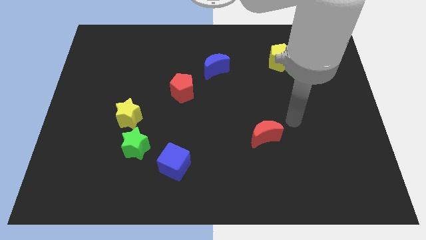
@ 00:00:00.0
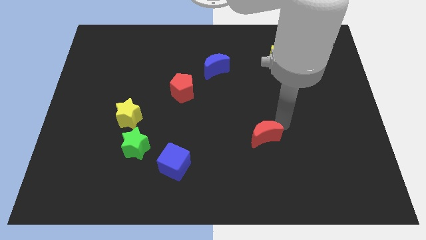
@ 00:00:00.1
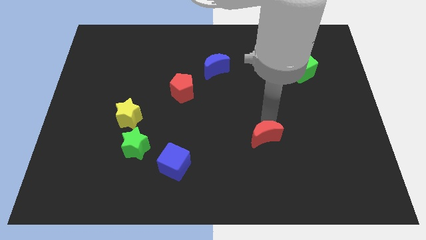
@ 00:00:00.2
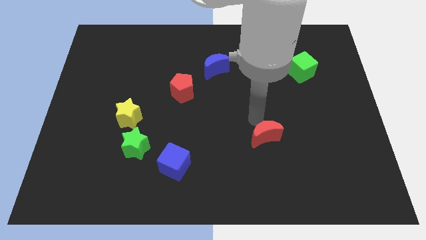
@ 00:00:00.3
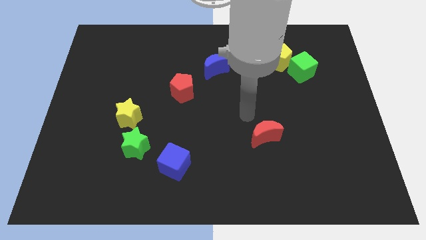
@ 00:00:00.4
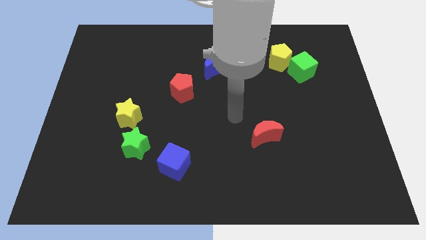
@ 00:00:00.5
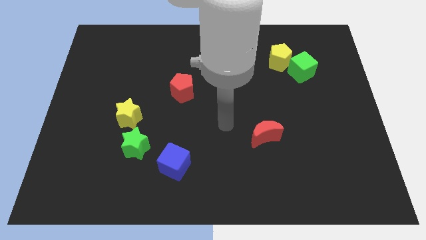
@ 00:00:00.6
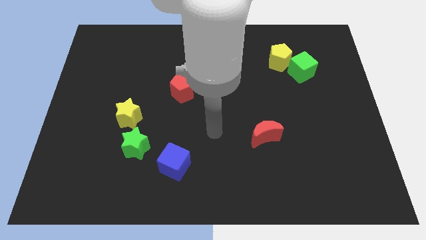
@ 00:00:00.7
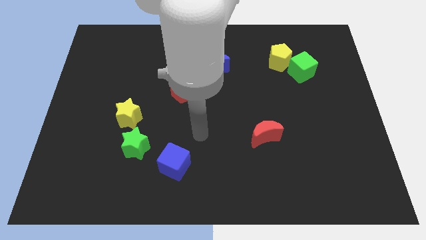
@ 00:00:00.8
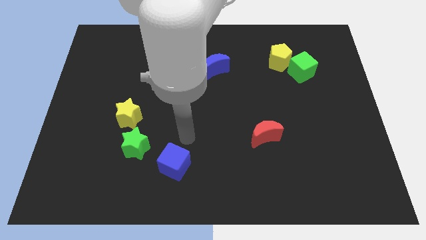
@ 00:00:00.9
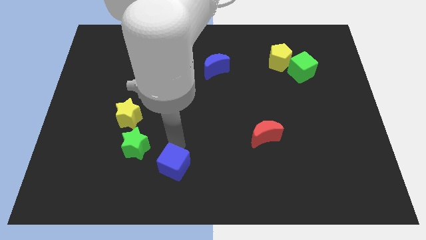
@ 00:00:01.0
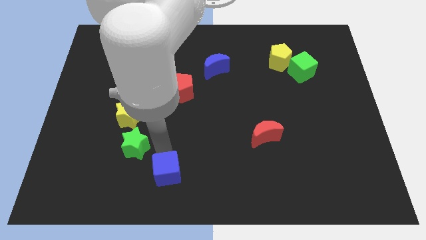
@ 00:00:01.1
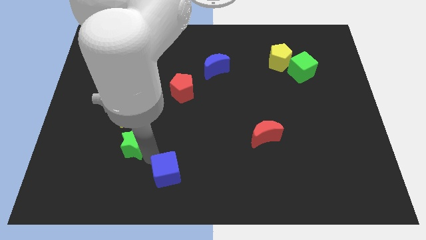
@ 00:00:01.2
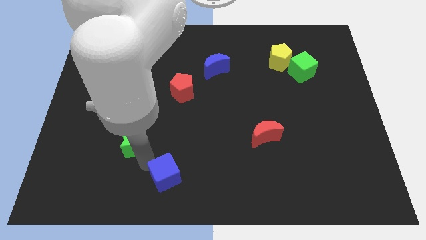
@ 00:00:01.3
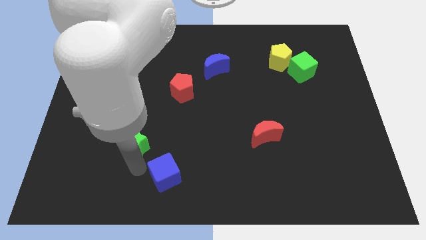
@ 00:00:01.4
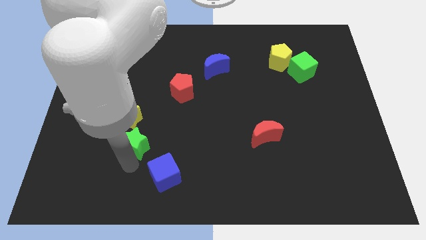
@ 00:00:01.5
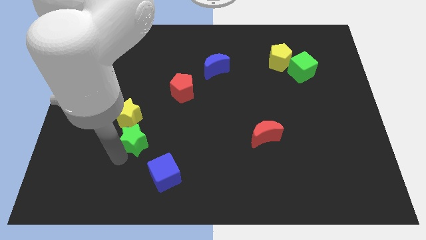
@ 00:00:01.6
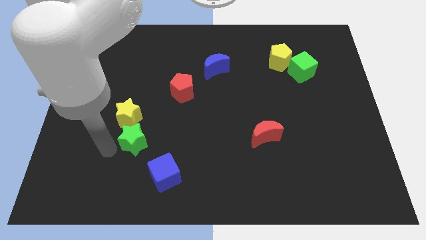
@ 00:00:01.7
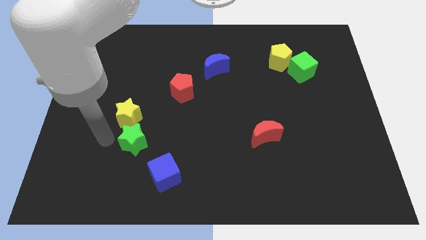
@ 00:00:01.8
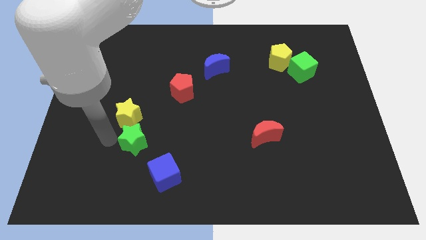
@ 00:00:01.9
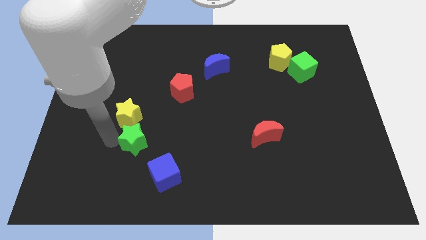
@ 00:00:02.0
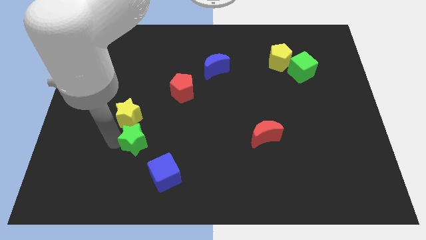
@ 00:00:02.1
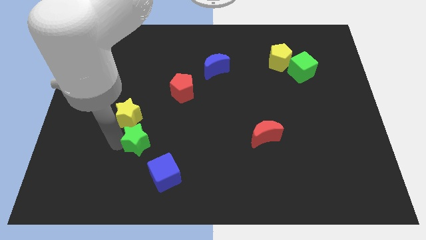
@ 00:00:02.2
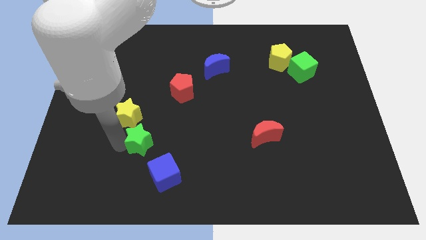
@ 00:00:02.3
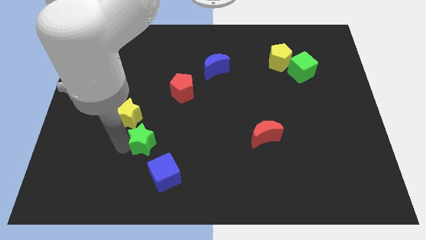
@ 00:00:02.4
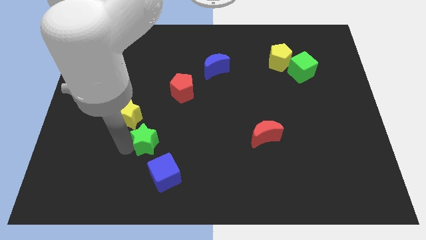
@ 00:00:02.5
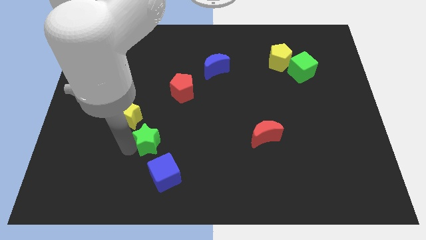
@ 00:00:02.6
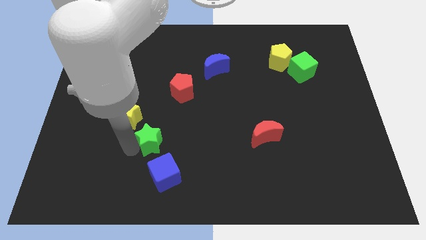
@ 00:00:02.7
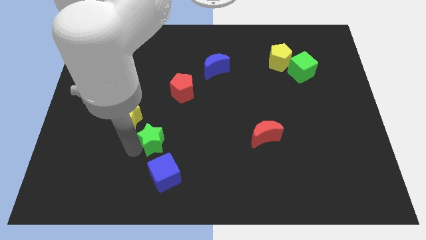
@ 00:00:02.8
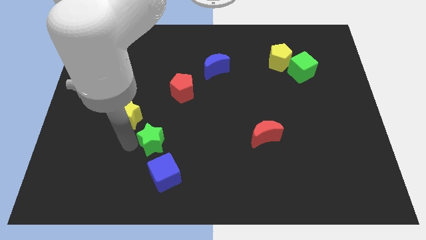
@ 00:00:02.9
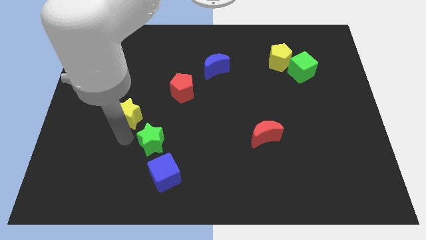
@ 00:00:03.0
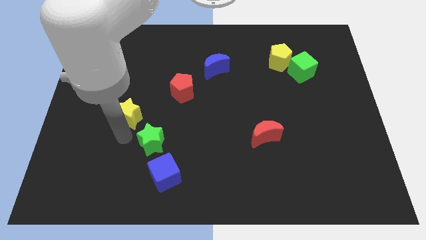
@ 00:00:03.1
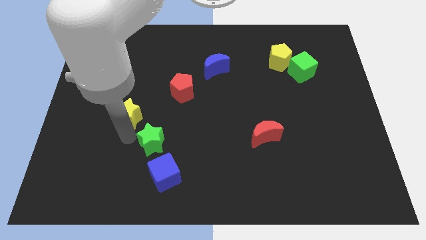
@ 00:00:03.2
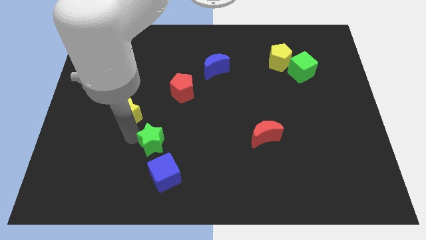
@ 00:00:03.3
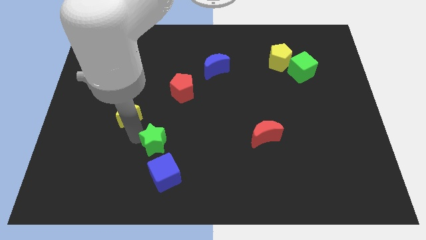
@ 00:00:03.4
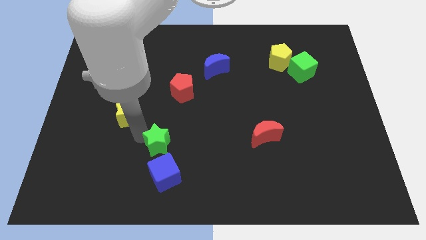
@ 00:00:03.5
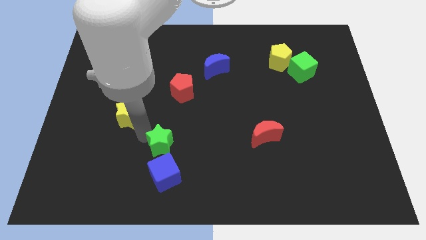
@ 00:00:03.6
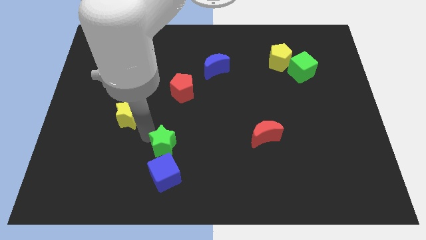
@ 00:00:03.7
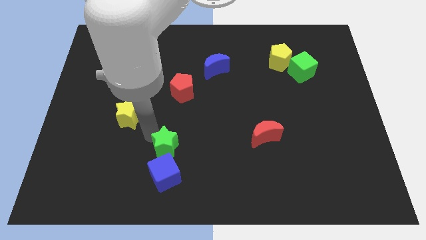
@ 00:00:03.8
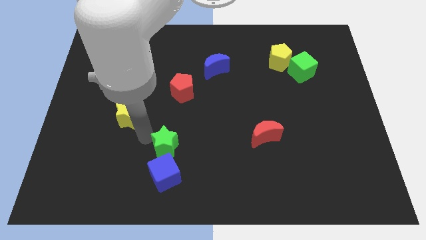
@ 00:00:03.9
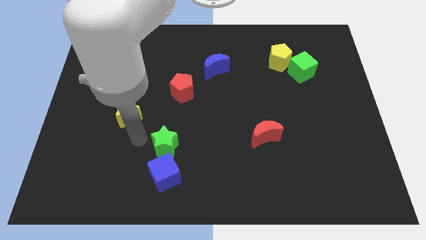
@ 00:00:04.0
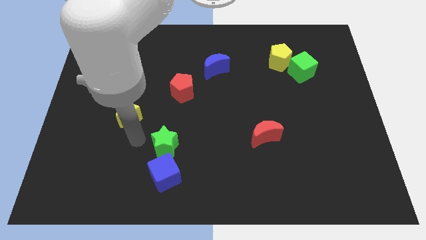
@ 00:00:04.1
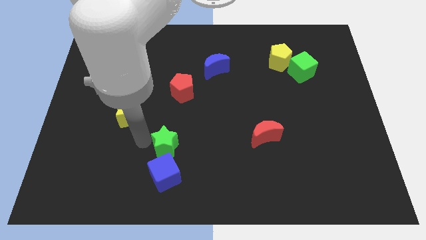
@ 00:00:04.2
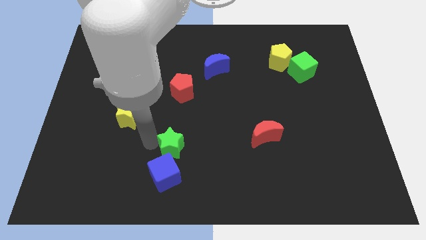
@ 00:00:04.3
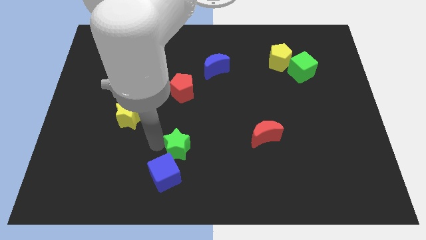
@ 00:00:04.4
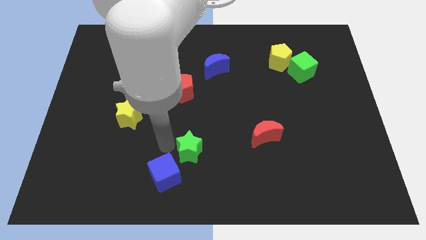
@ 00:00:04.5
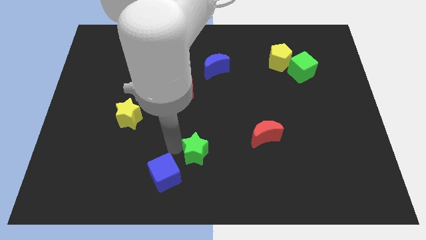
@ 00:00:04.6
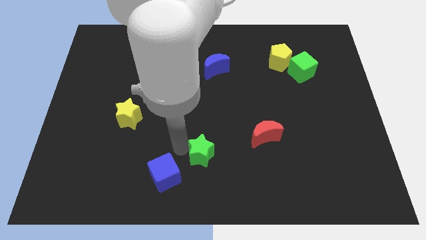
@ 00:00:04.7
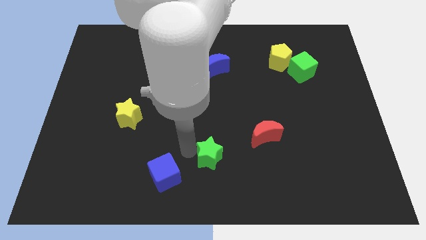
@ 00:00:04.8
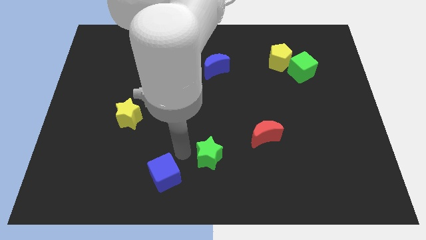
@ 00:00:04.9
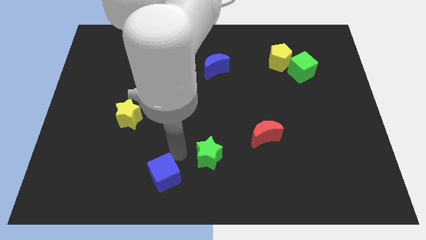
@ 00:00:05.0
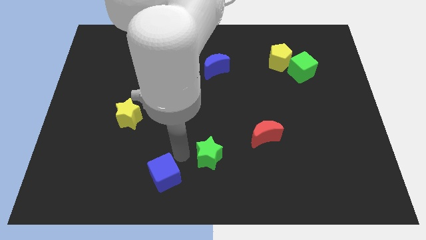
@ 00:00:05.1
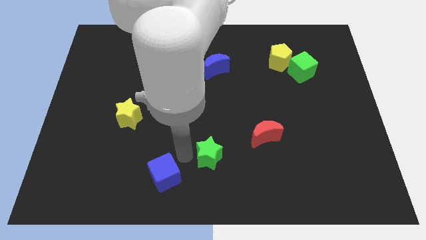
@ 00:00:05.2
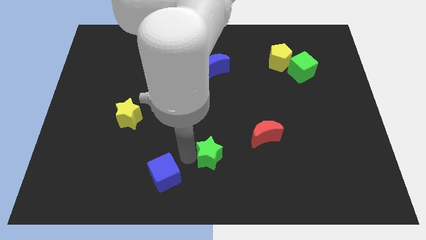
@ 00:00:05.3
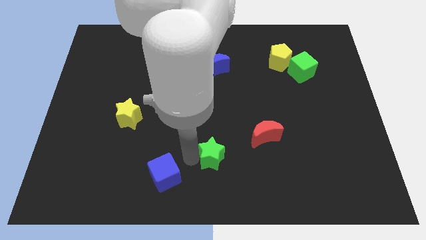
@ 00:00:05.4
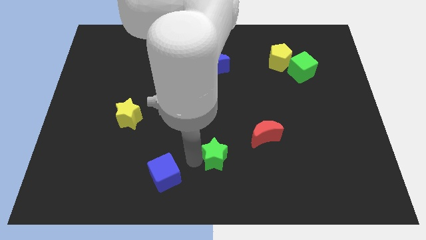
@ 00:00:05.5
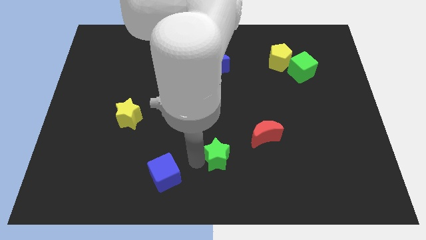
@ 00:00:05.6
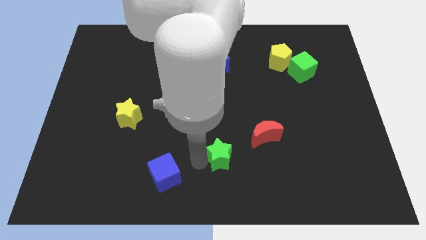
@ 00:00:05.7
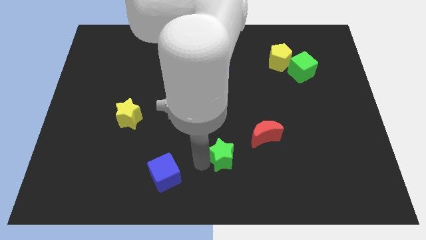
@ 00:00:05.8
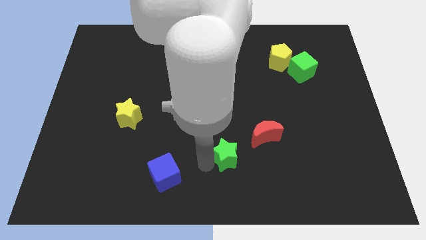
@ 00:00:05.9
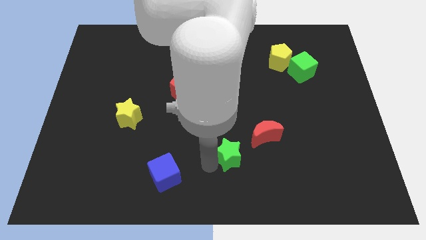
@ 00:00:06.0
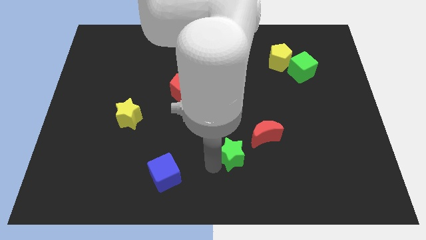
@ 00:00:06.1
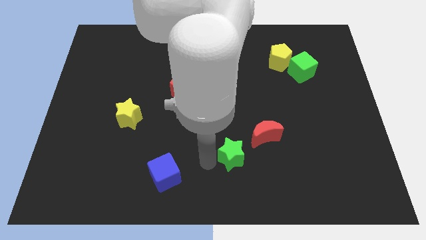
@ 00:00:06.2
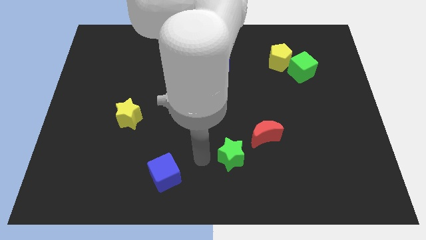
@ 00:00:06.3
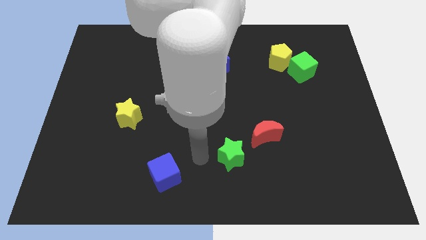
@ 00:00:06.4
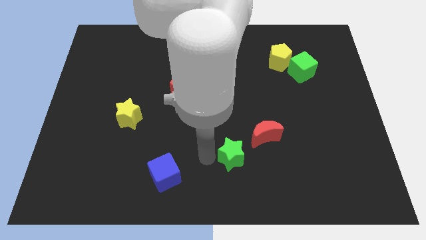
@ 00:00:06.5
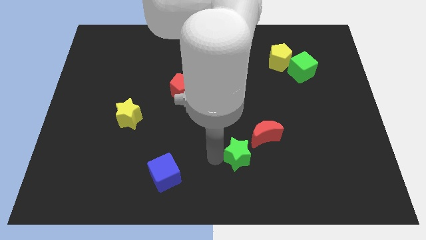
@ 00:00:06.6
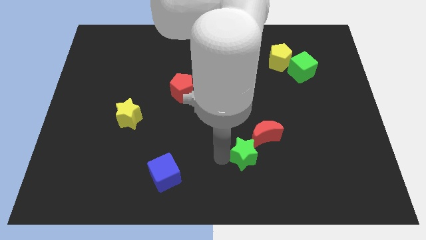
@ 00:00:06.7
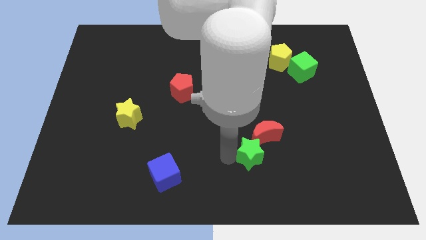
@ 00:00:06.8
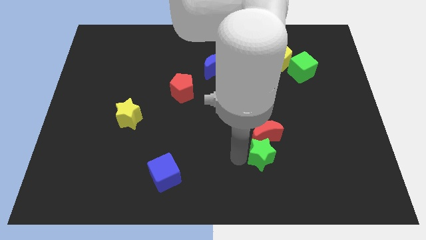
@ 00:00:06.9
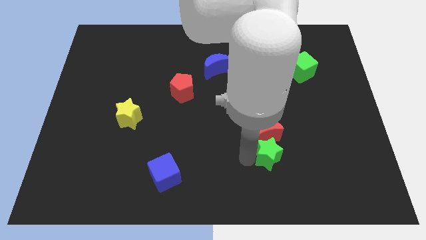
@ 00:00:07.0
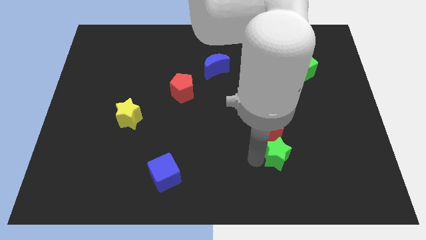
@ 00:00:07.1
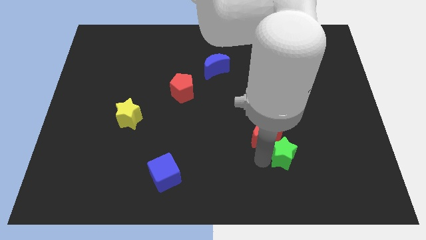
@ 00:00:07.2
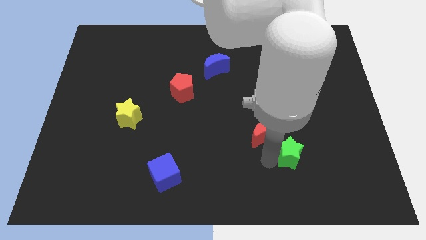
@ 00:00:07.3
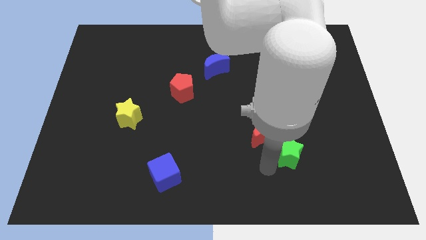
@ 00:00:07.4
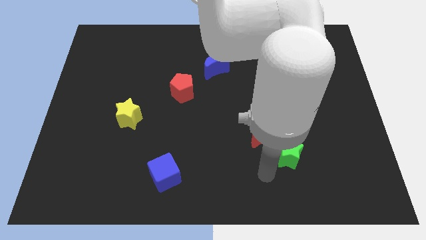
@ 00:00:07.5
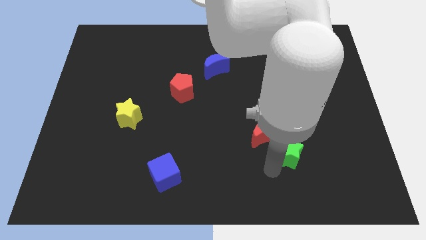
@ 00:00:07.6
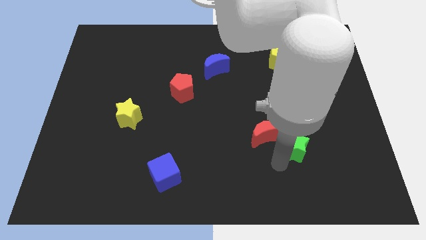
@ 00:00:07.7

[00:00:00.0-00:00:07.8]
slide the green star just right of the red moon
